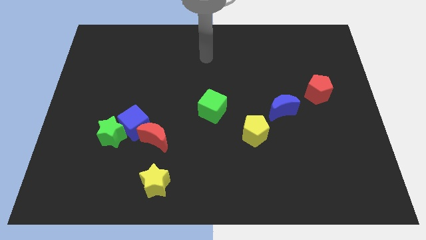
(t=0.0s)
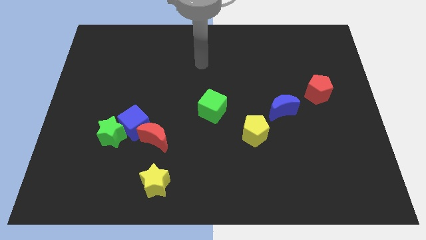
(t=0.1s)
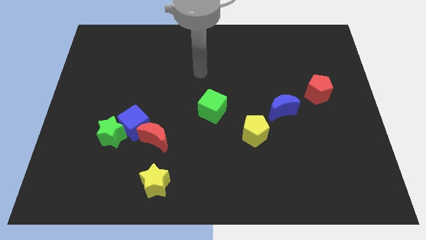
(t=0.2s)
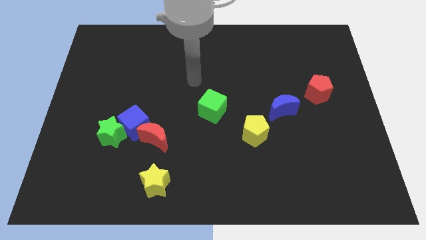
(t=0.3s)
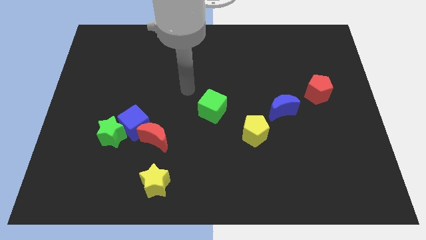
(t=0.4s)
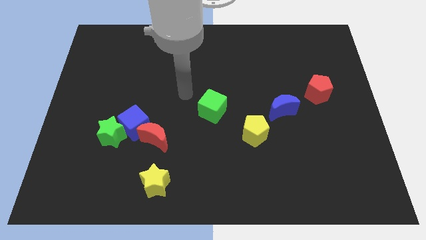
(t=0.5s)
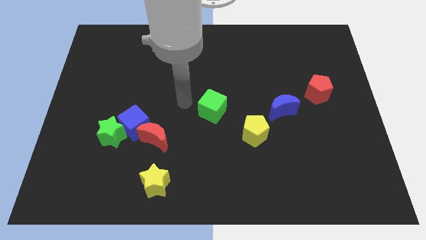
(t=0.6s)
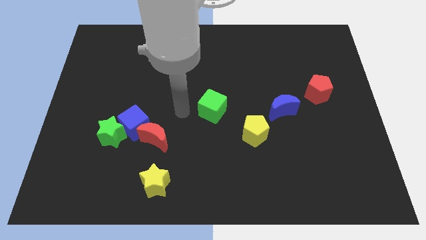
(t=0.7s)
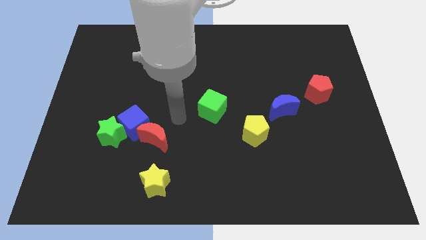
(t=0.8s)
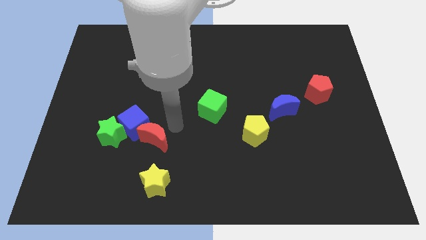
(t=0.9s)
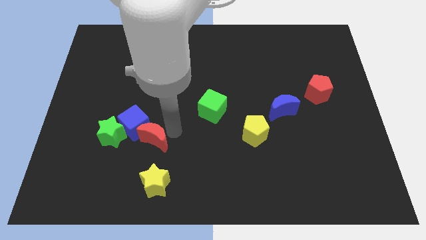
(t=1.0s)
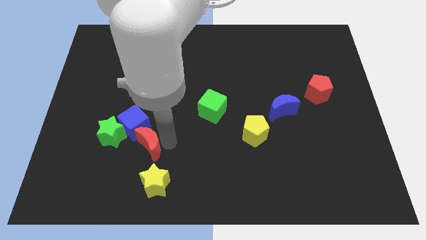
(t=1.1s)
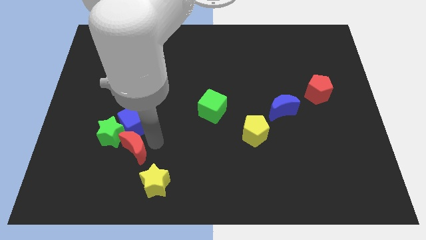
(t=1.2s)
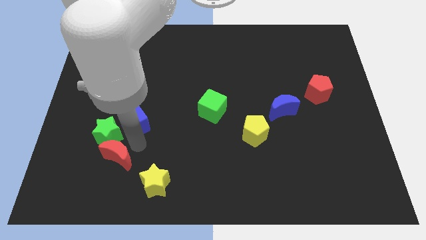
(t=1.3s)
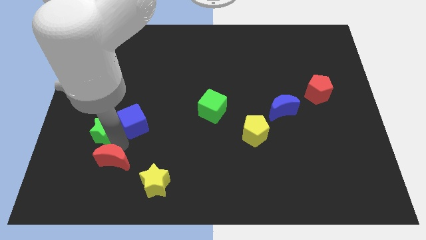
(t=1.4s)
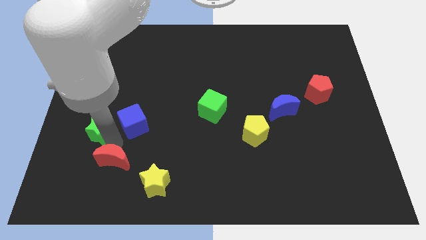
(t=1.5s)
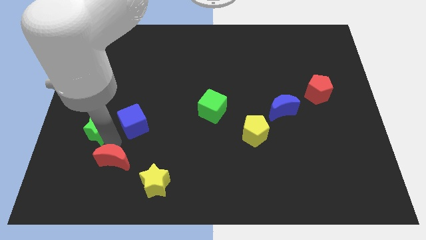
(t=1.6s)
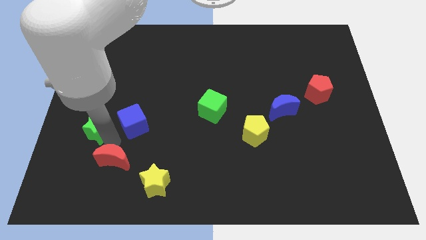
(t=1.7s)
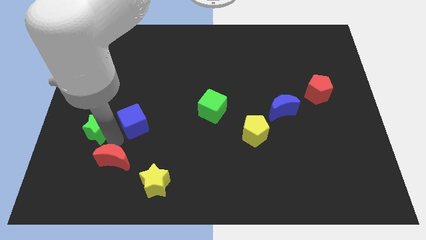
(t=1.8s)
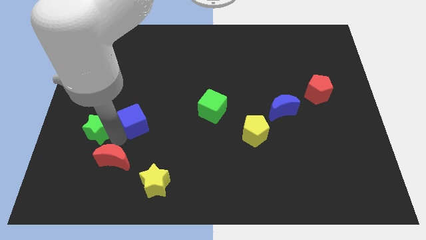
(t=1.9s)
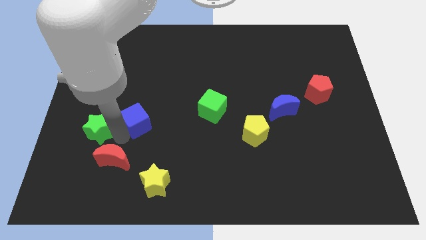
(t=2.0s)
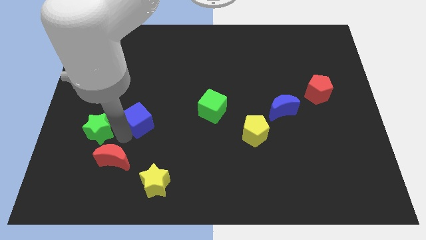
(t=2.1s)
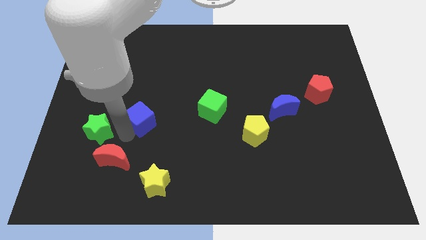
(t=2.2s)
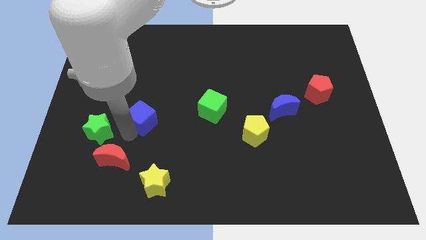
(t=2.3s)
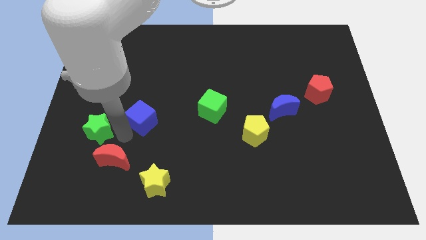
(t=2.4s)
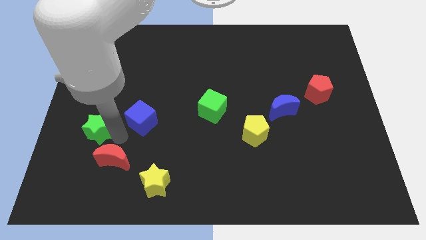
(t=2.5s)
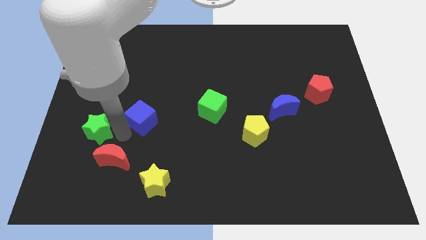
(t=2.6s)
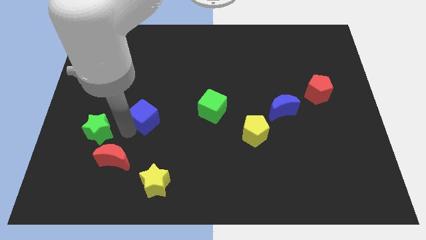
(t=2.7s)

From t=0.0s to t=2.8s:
move the blue cube away from the green star and red moon

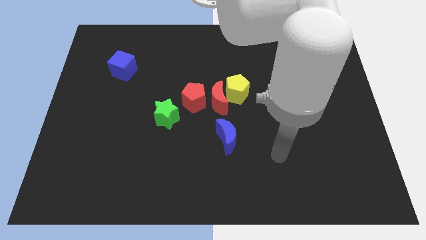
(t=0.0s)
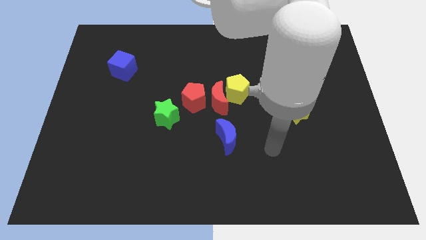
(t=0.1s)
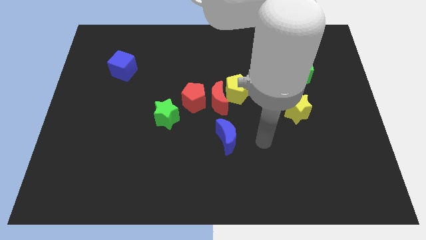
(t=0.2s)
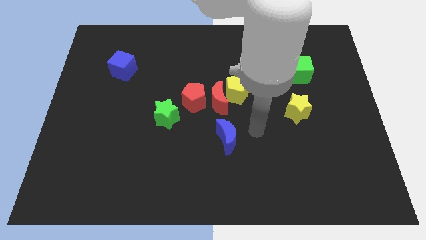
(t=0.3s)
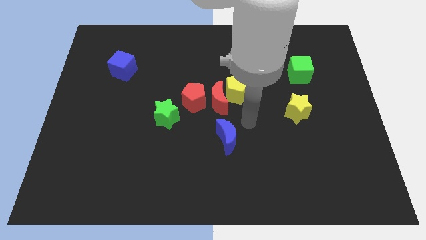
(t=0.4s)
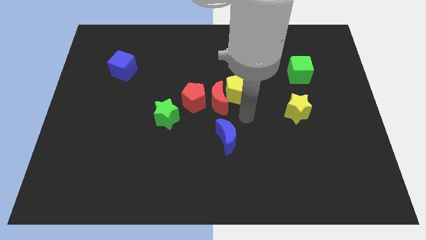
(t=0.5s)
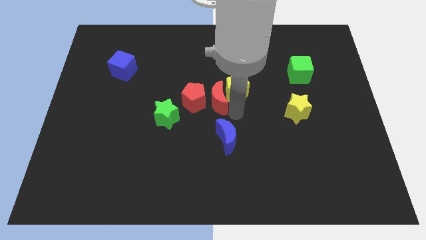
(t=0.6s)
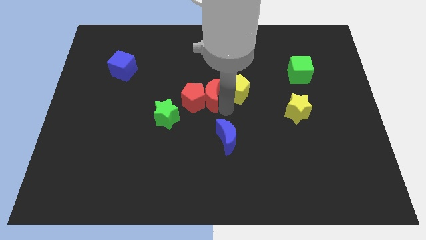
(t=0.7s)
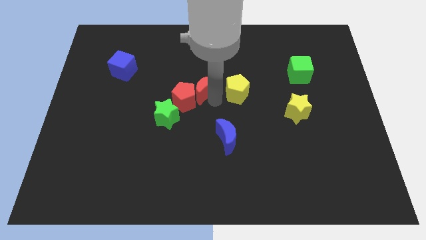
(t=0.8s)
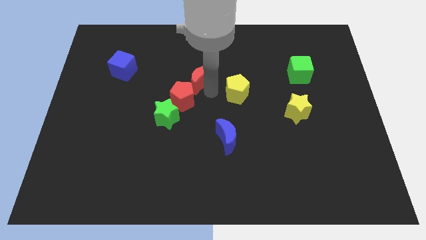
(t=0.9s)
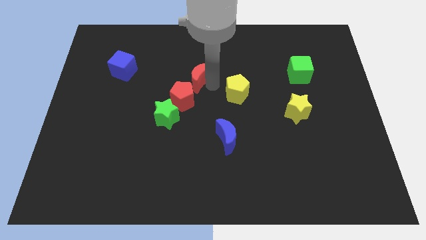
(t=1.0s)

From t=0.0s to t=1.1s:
separate the yellow pentagon from the red moon

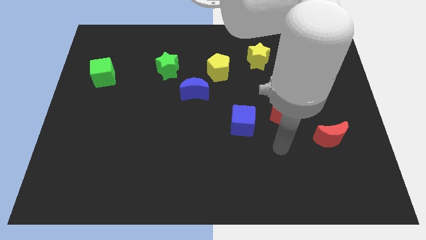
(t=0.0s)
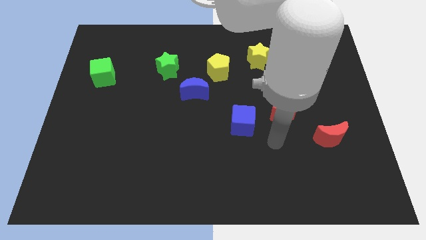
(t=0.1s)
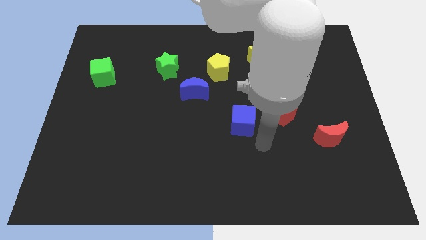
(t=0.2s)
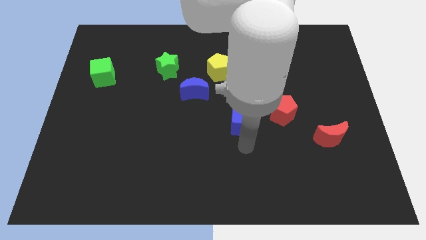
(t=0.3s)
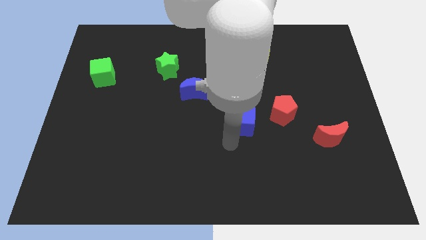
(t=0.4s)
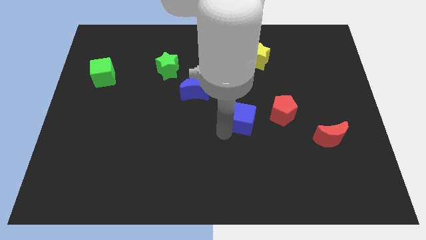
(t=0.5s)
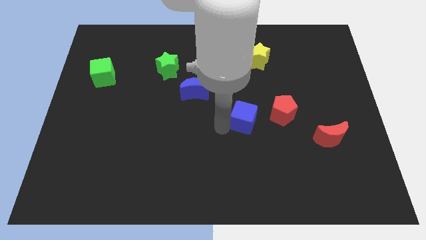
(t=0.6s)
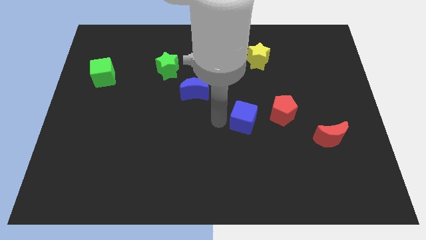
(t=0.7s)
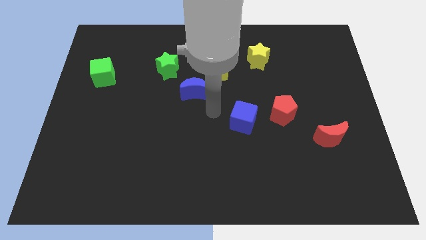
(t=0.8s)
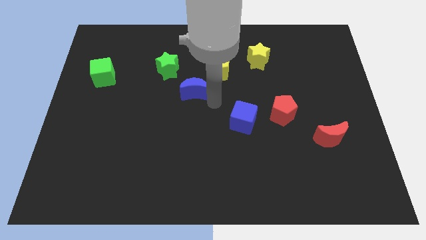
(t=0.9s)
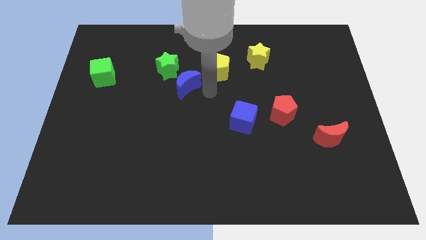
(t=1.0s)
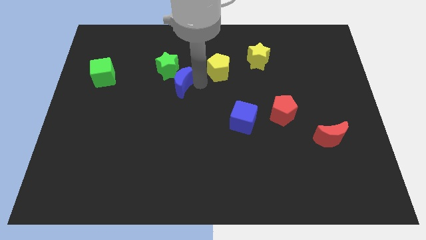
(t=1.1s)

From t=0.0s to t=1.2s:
move the yellow pentagon away from the blue moon

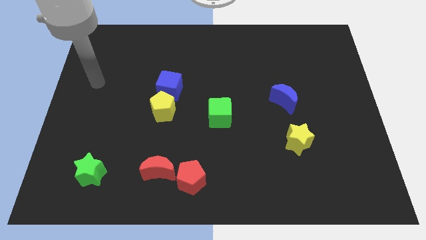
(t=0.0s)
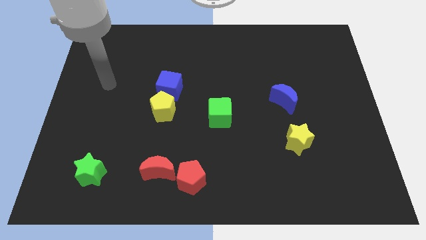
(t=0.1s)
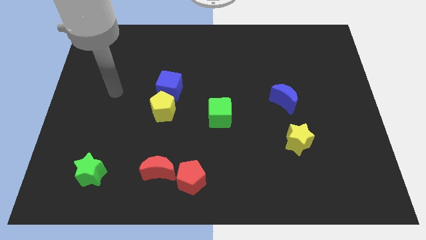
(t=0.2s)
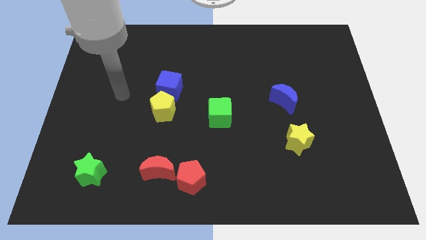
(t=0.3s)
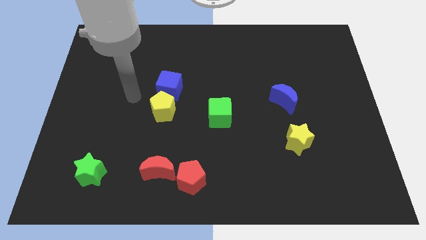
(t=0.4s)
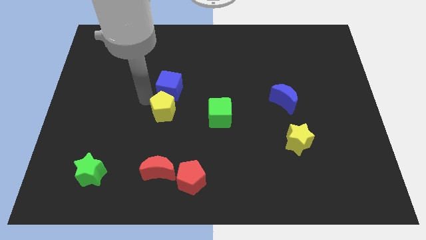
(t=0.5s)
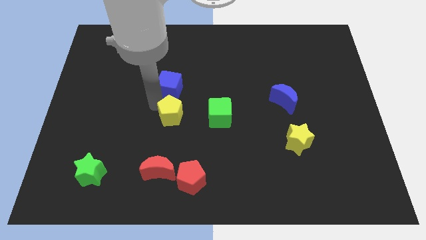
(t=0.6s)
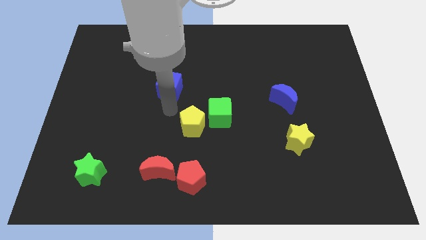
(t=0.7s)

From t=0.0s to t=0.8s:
move the blue cube away from the yellow pentagon

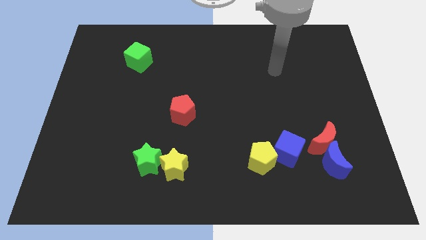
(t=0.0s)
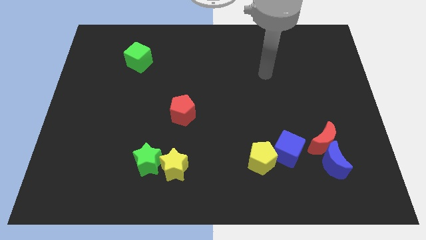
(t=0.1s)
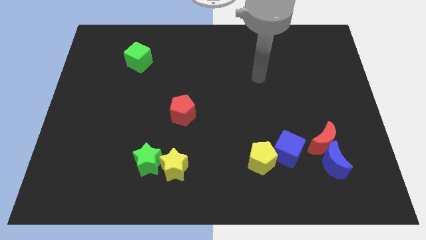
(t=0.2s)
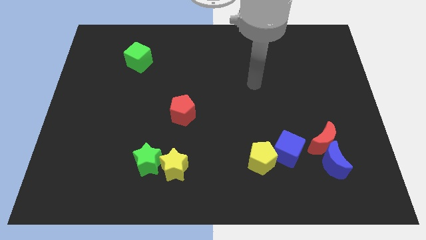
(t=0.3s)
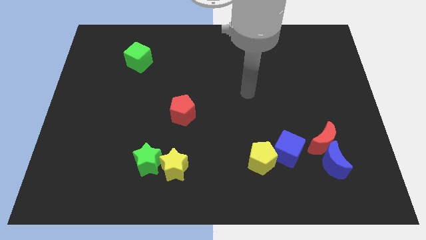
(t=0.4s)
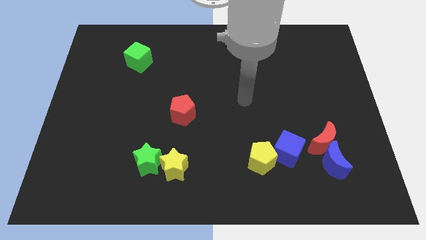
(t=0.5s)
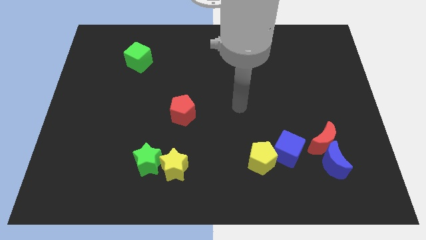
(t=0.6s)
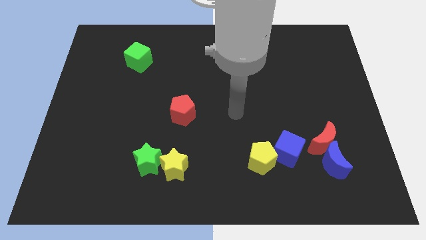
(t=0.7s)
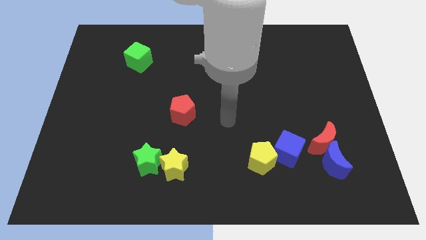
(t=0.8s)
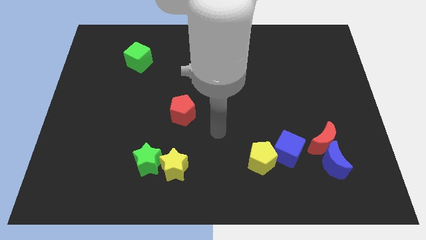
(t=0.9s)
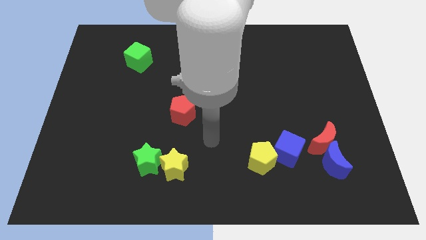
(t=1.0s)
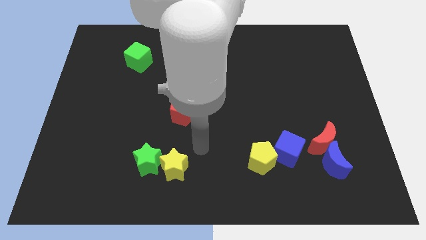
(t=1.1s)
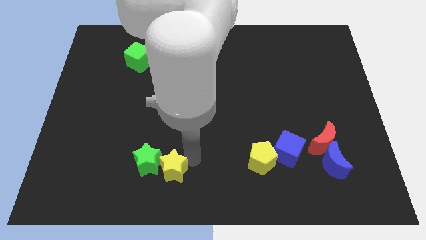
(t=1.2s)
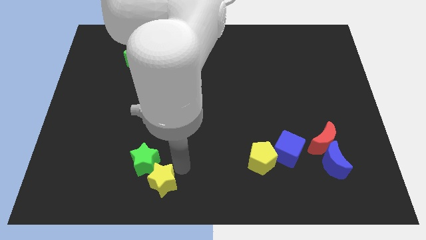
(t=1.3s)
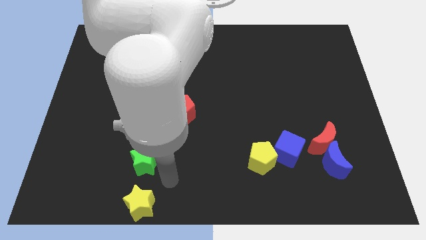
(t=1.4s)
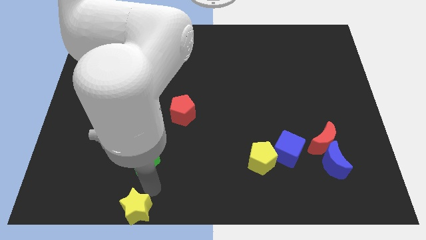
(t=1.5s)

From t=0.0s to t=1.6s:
move the green star away from the yellow star

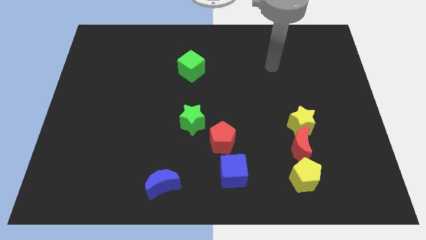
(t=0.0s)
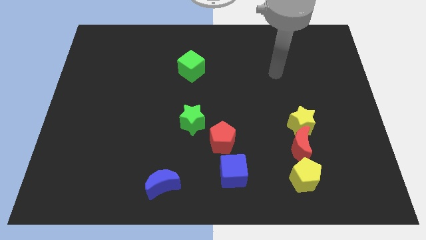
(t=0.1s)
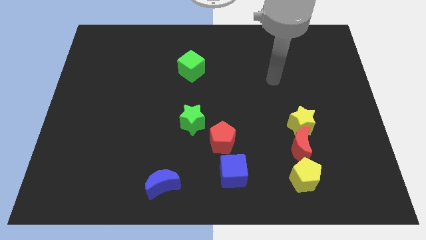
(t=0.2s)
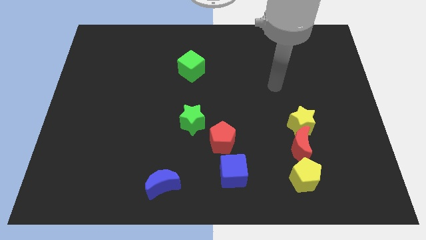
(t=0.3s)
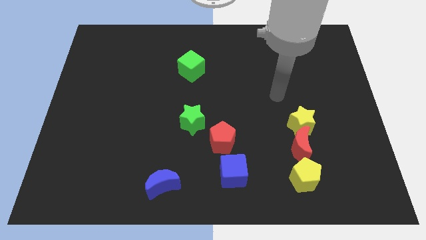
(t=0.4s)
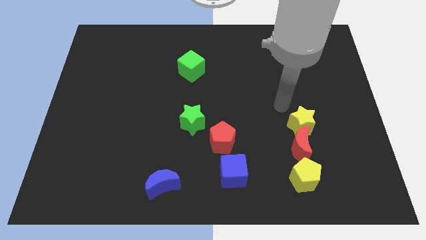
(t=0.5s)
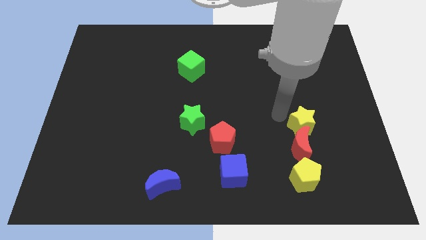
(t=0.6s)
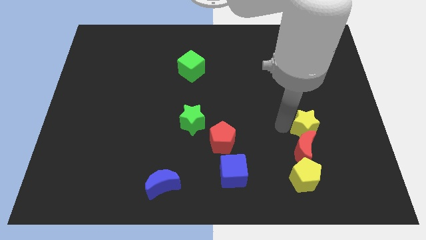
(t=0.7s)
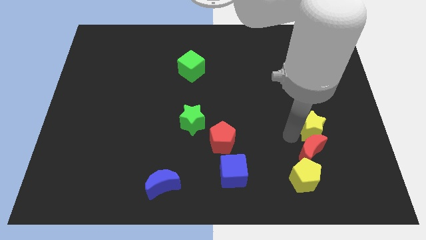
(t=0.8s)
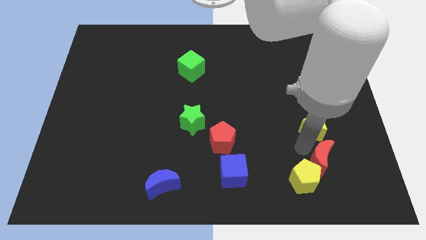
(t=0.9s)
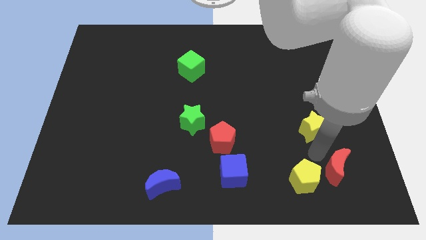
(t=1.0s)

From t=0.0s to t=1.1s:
separate the yellow star from the red moon

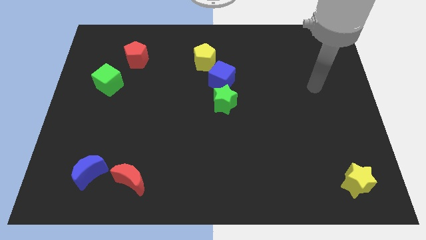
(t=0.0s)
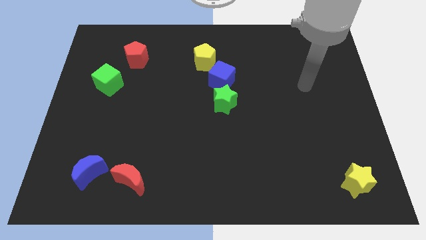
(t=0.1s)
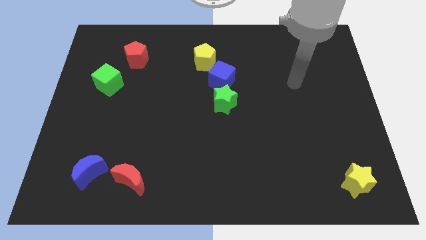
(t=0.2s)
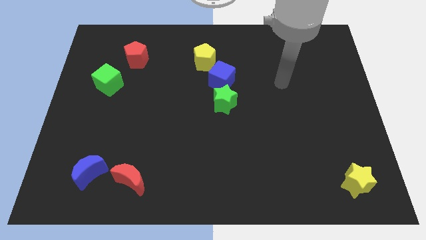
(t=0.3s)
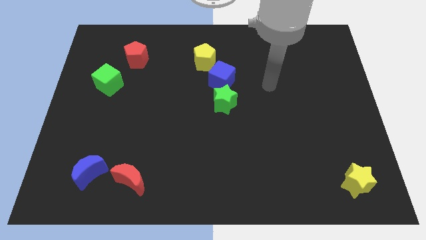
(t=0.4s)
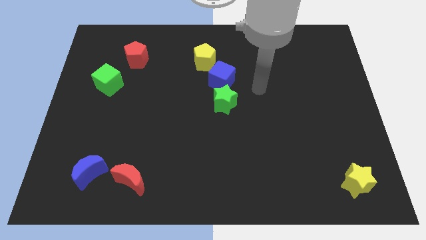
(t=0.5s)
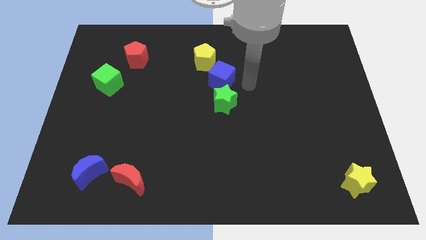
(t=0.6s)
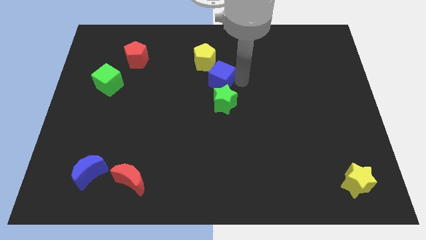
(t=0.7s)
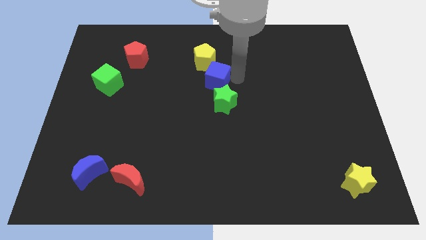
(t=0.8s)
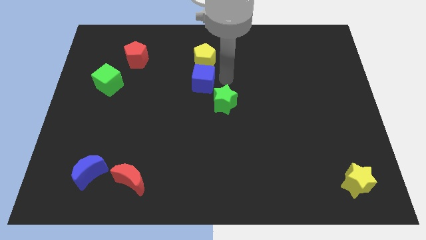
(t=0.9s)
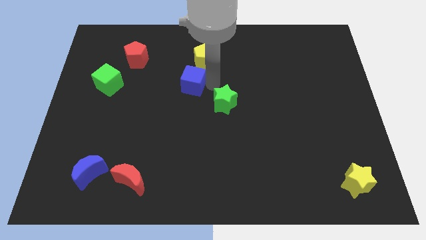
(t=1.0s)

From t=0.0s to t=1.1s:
move the green star away from the blue cube
